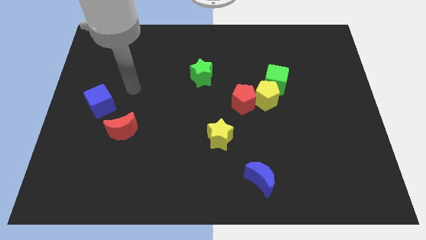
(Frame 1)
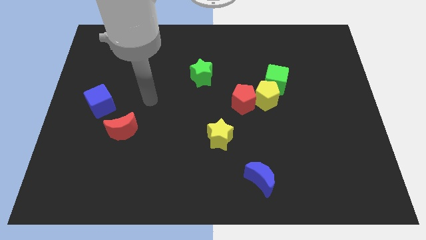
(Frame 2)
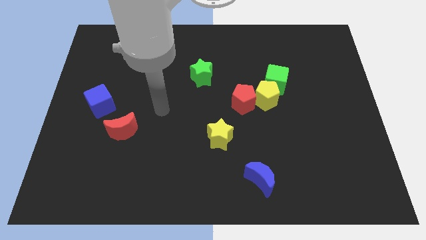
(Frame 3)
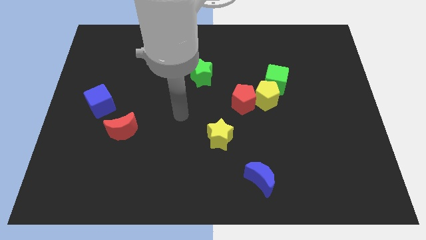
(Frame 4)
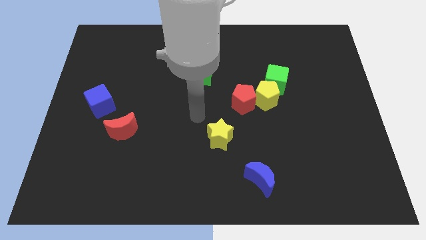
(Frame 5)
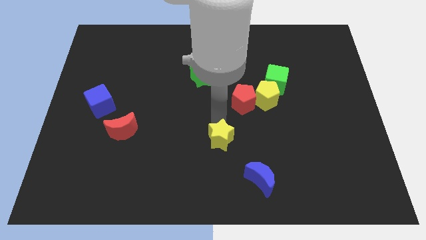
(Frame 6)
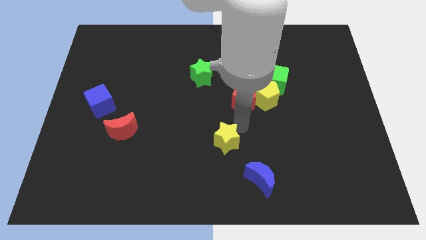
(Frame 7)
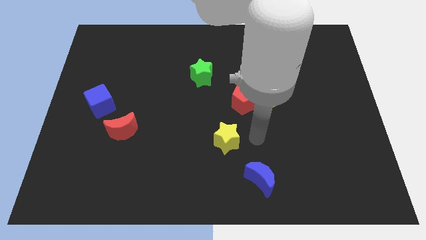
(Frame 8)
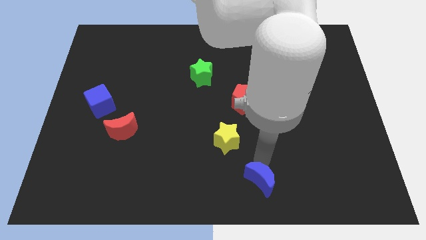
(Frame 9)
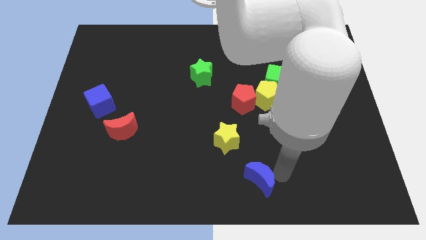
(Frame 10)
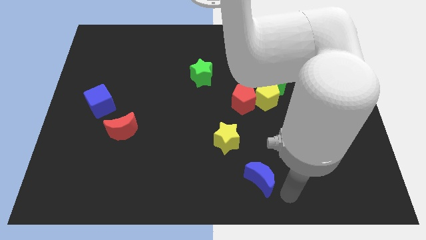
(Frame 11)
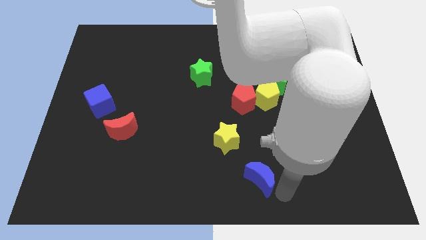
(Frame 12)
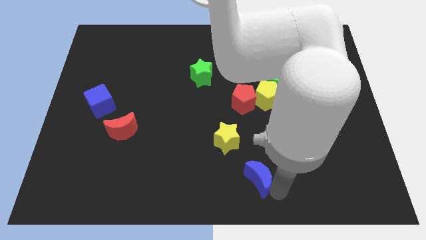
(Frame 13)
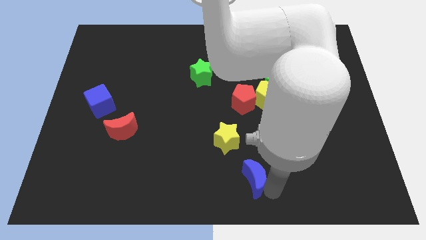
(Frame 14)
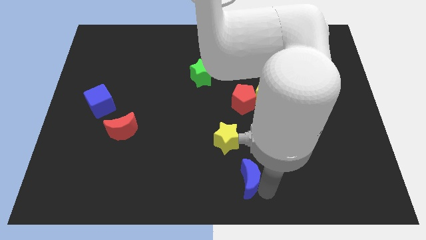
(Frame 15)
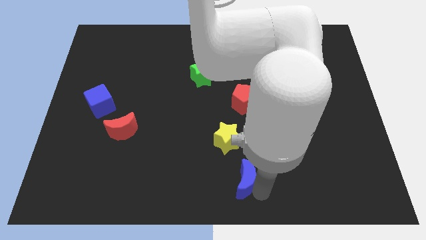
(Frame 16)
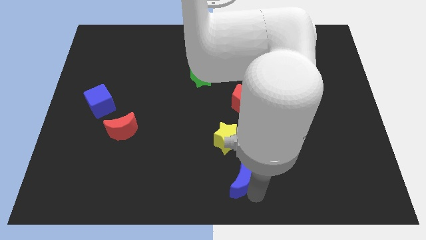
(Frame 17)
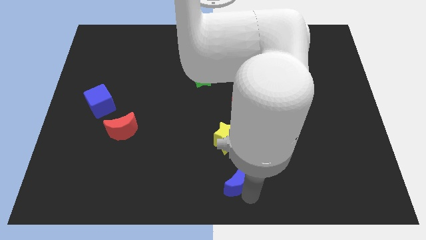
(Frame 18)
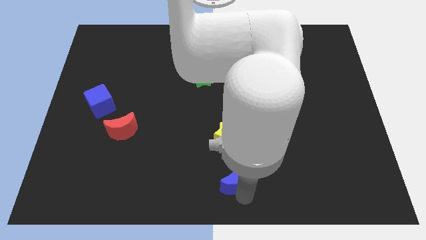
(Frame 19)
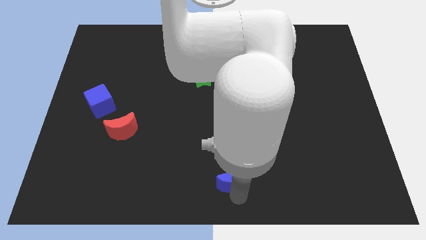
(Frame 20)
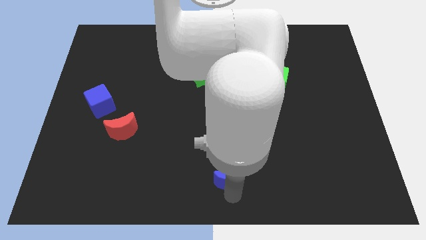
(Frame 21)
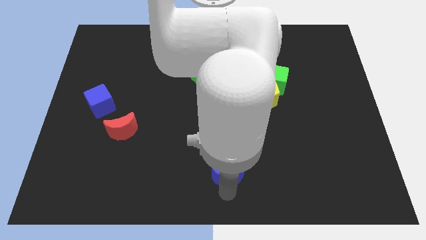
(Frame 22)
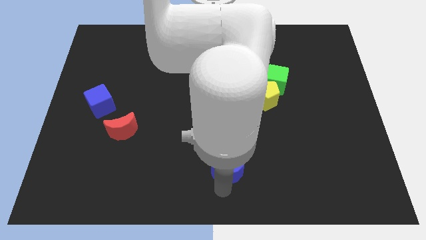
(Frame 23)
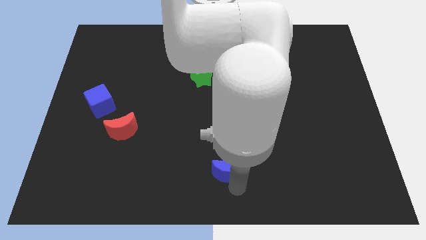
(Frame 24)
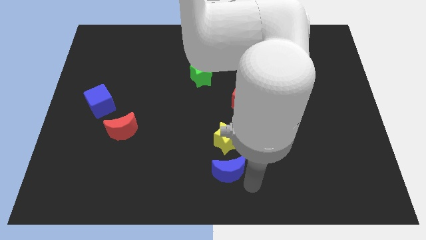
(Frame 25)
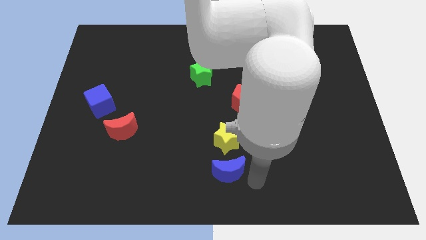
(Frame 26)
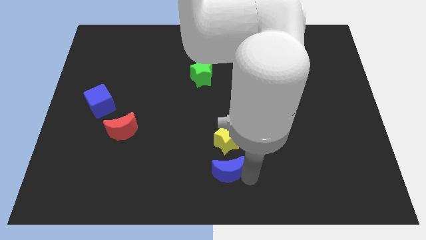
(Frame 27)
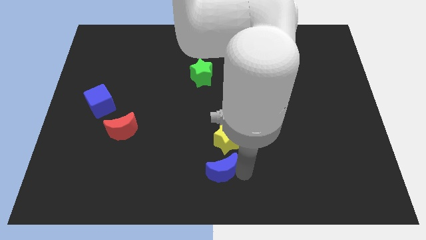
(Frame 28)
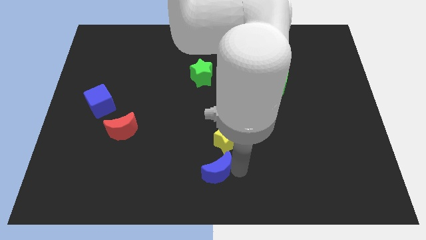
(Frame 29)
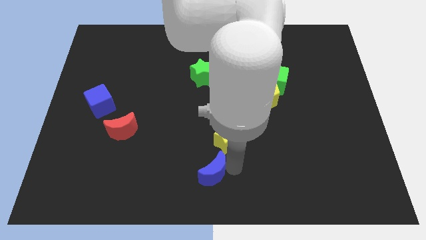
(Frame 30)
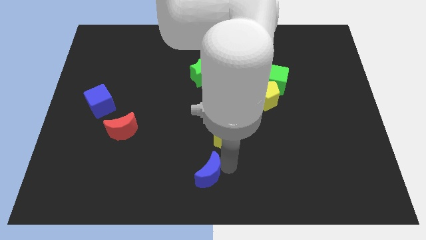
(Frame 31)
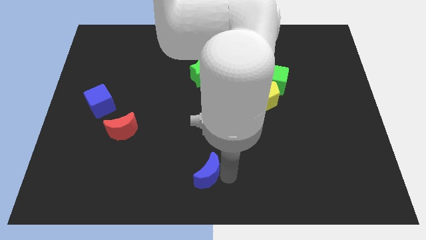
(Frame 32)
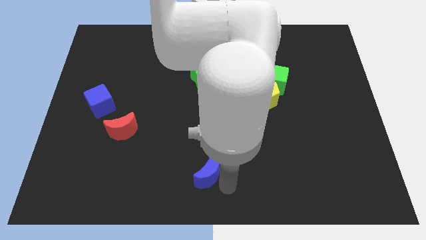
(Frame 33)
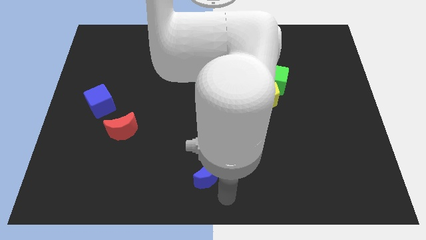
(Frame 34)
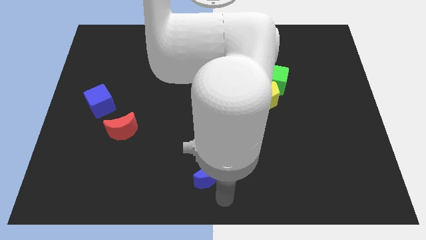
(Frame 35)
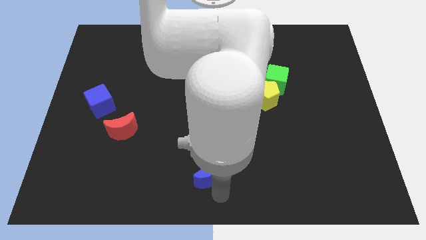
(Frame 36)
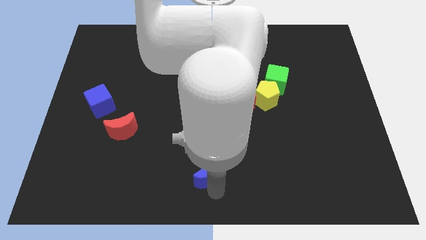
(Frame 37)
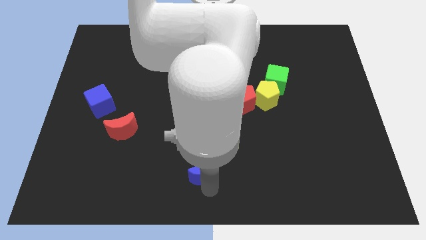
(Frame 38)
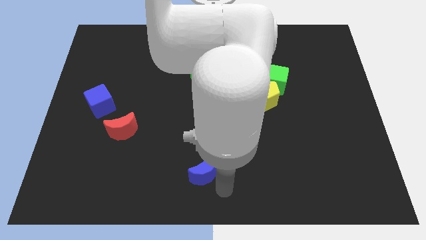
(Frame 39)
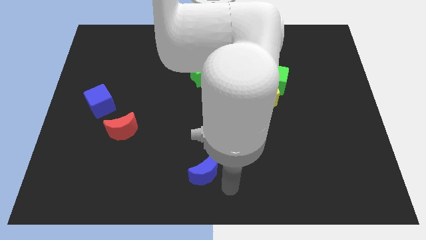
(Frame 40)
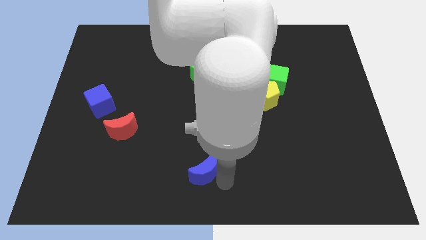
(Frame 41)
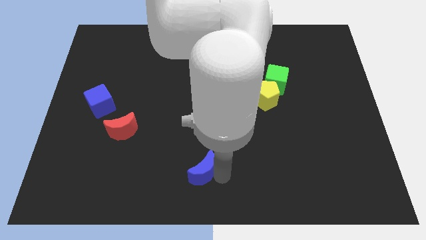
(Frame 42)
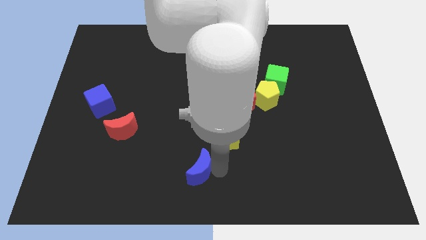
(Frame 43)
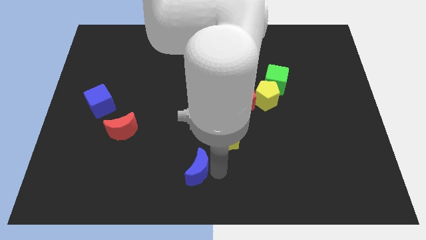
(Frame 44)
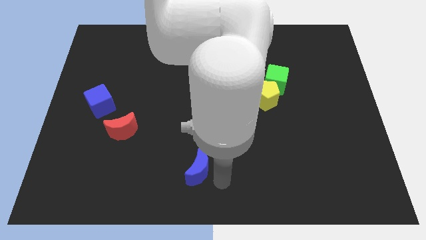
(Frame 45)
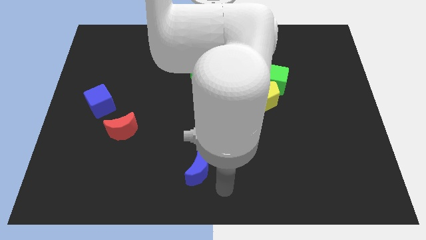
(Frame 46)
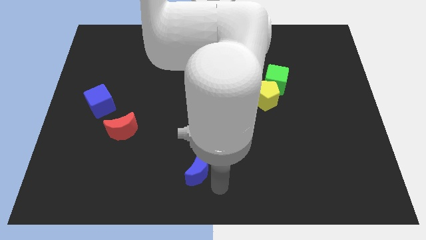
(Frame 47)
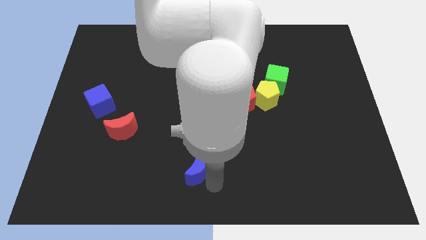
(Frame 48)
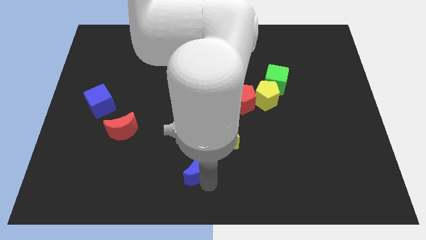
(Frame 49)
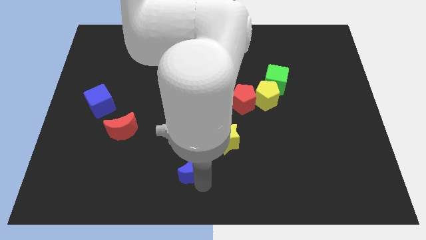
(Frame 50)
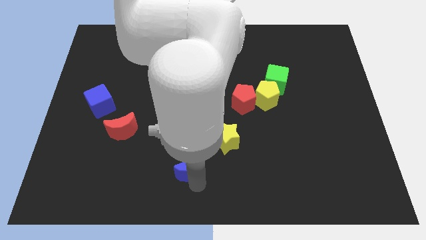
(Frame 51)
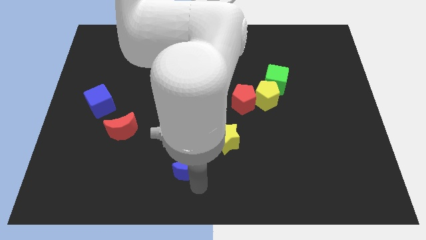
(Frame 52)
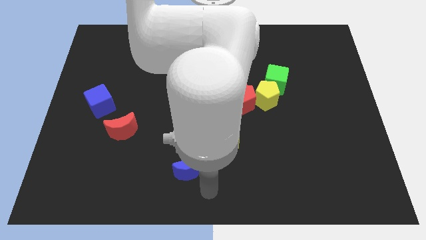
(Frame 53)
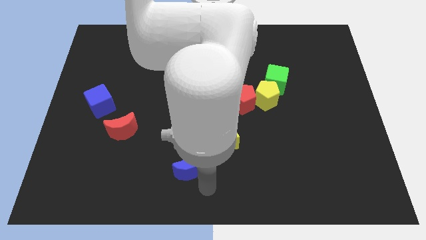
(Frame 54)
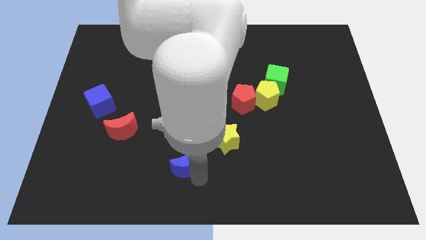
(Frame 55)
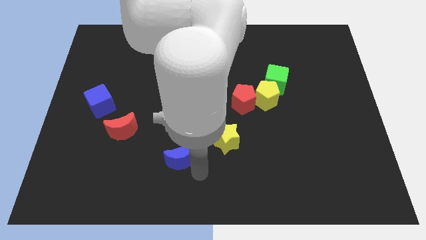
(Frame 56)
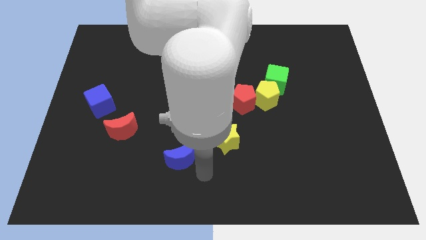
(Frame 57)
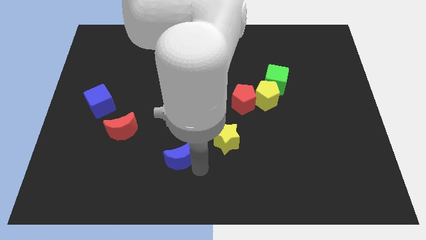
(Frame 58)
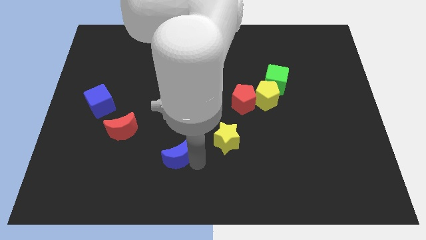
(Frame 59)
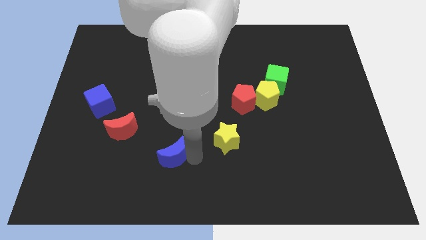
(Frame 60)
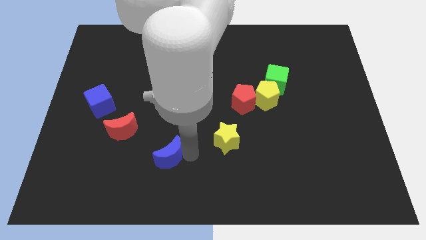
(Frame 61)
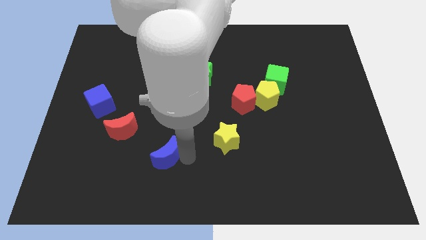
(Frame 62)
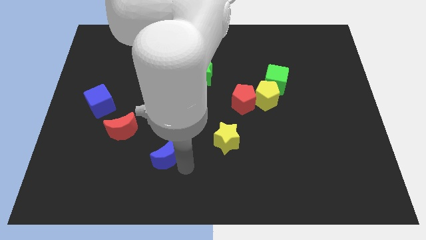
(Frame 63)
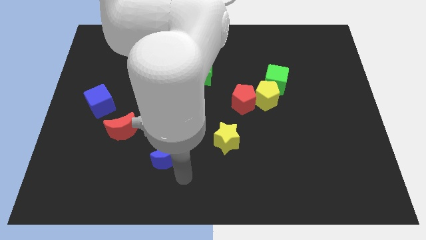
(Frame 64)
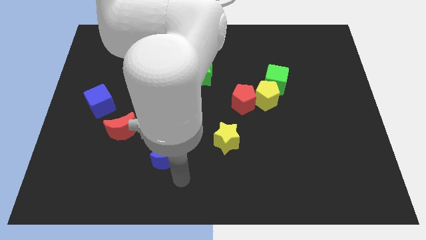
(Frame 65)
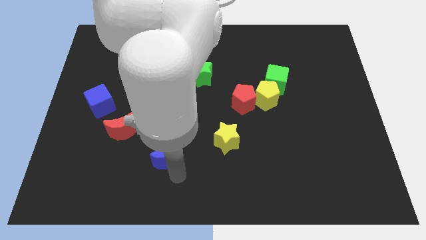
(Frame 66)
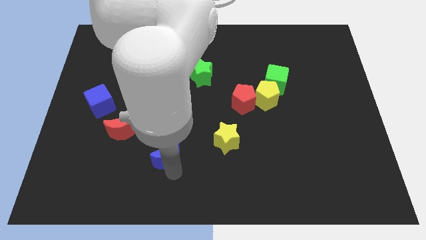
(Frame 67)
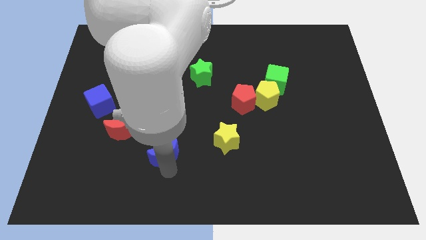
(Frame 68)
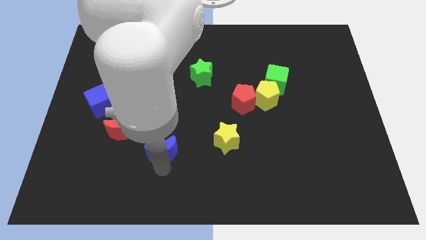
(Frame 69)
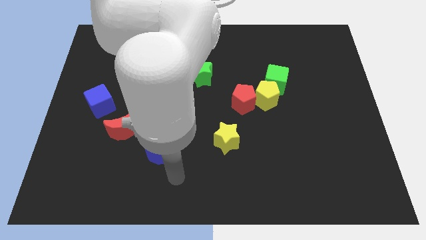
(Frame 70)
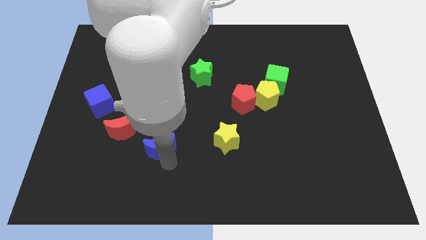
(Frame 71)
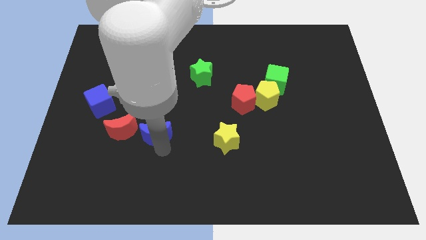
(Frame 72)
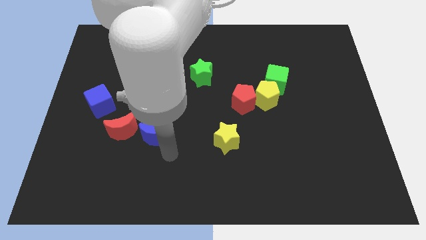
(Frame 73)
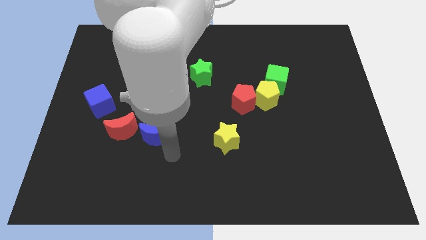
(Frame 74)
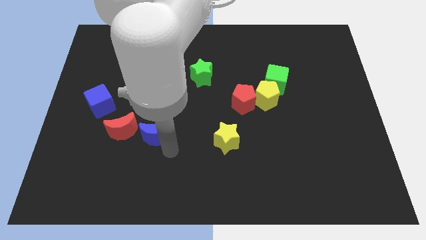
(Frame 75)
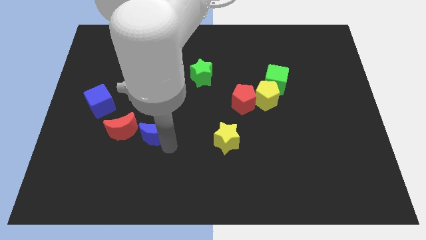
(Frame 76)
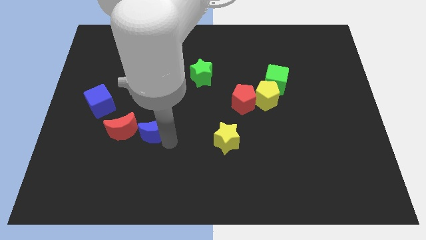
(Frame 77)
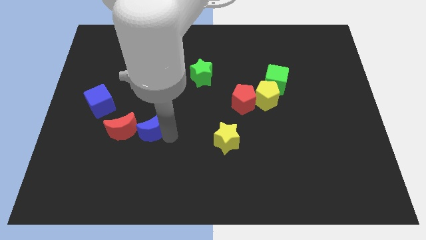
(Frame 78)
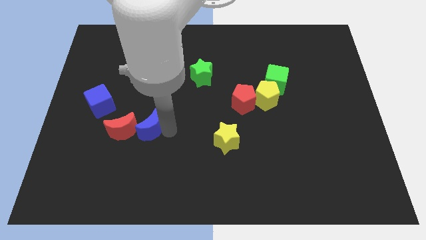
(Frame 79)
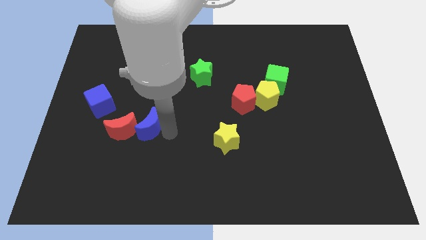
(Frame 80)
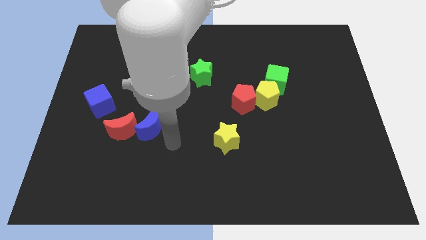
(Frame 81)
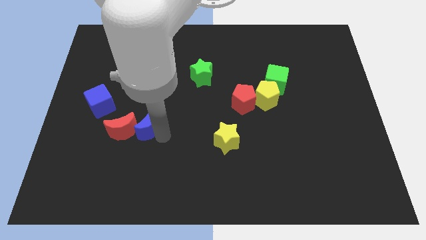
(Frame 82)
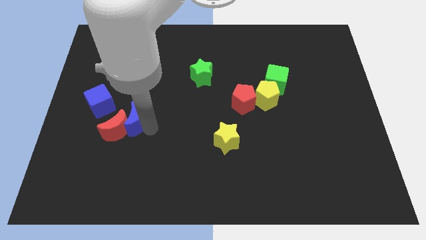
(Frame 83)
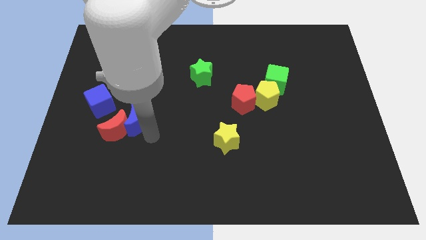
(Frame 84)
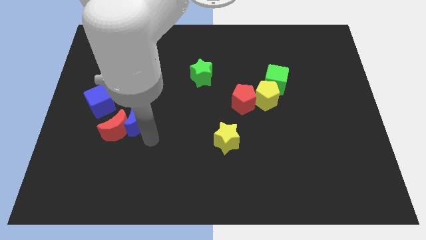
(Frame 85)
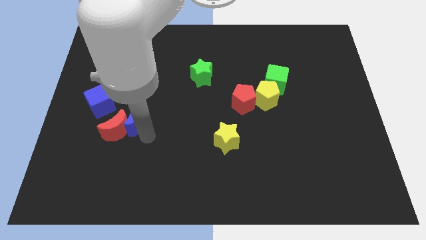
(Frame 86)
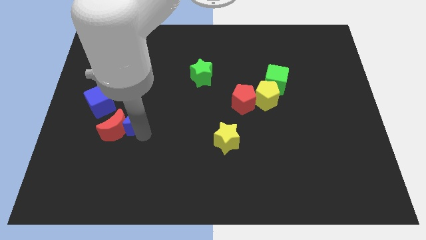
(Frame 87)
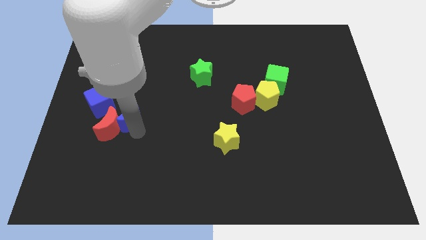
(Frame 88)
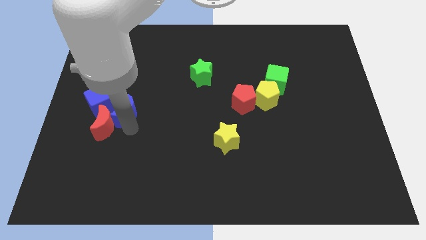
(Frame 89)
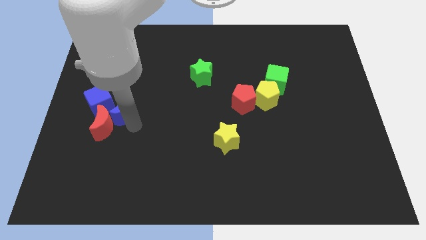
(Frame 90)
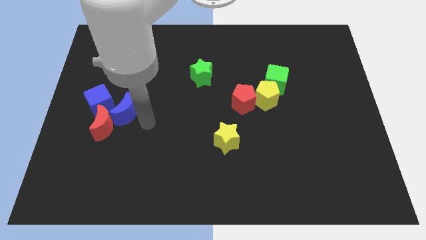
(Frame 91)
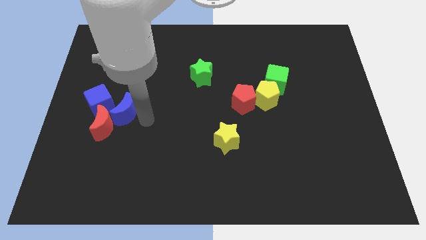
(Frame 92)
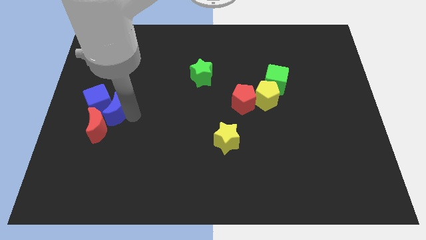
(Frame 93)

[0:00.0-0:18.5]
slide the blue moon close to the blue cube
